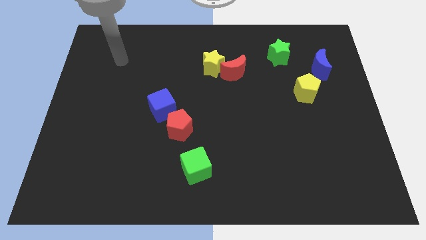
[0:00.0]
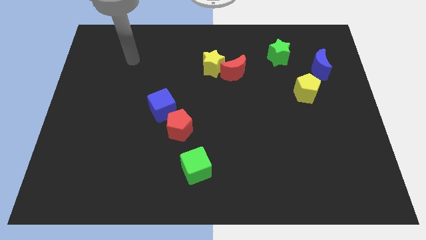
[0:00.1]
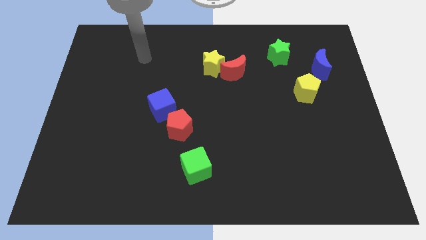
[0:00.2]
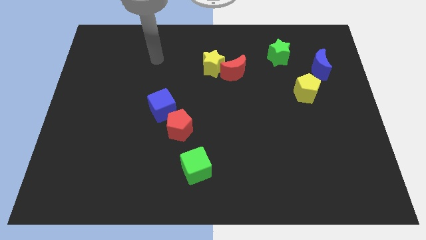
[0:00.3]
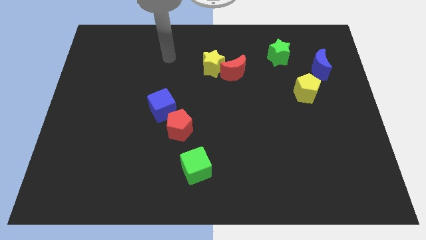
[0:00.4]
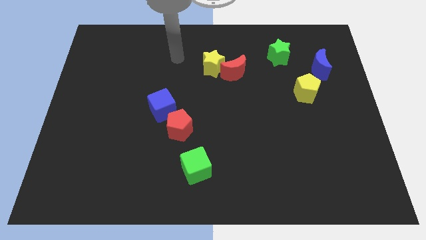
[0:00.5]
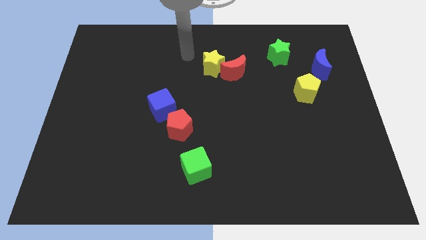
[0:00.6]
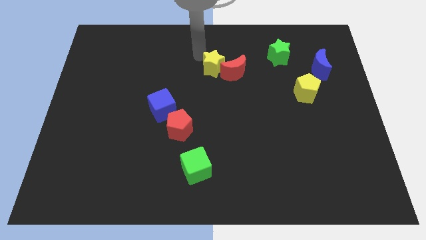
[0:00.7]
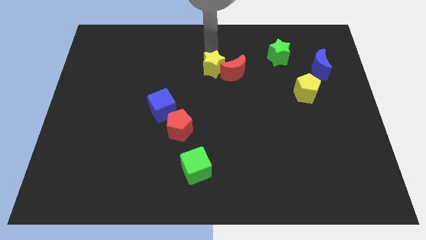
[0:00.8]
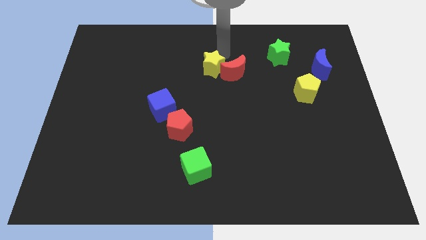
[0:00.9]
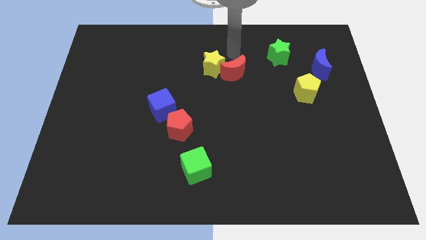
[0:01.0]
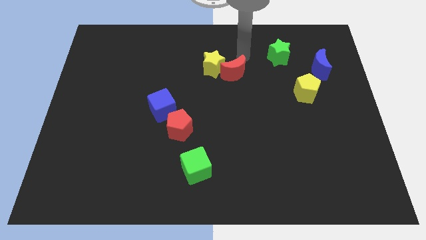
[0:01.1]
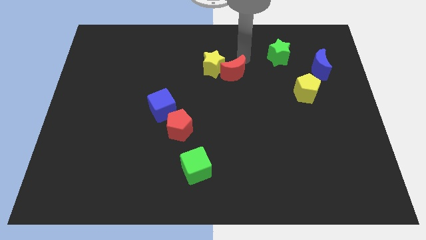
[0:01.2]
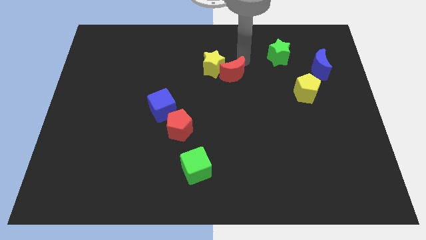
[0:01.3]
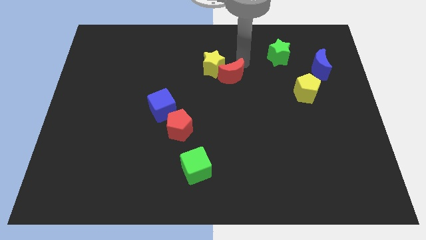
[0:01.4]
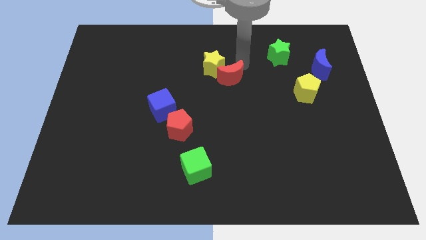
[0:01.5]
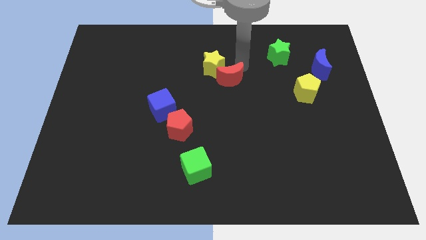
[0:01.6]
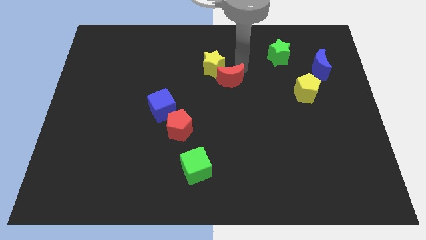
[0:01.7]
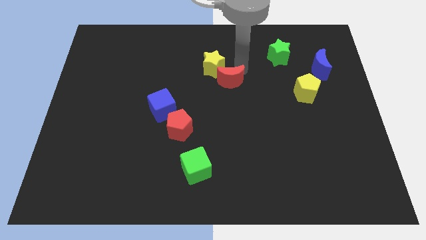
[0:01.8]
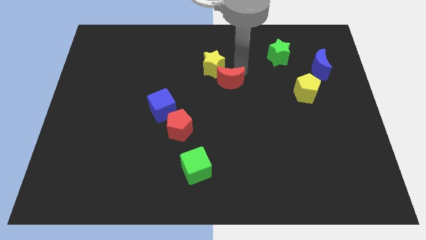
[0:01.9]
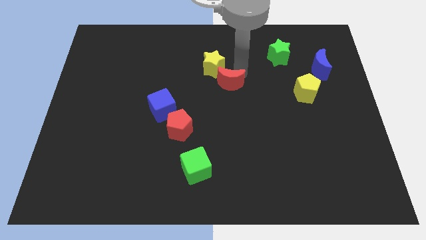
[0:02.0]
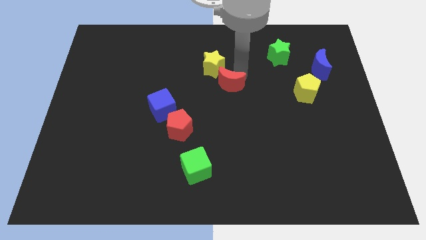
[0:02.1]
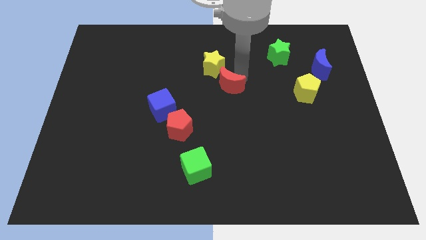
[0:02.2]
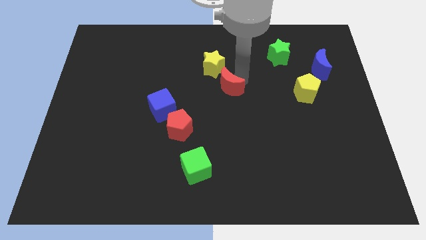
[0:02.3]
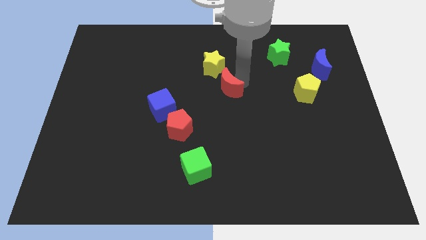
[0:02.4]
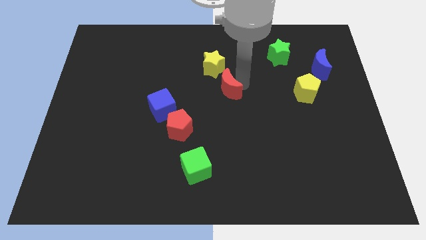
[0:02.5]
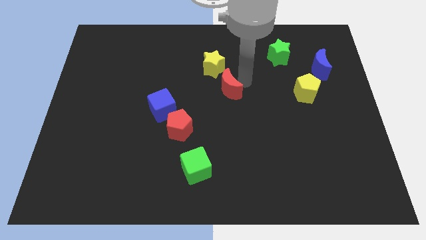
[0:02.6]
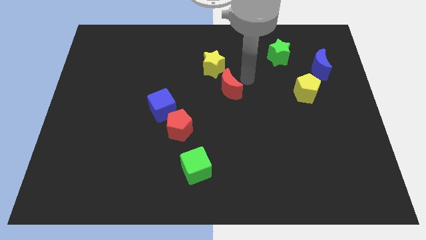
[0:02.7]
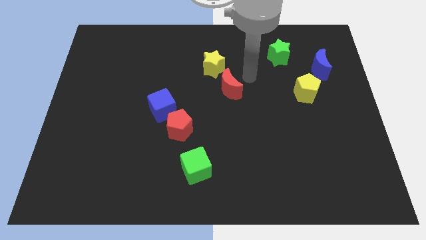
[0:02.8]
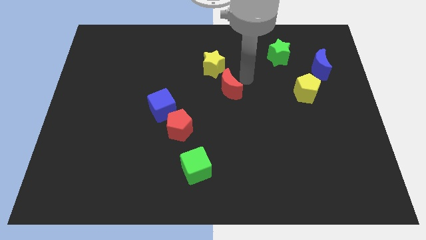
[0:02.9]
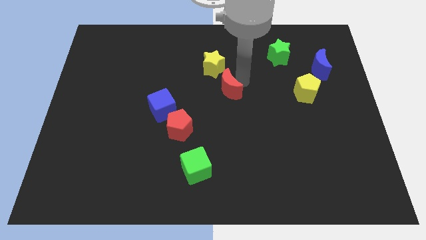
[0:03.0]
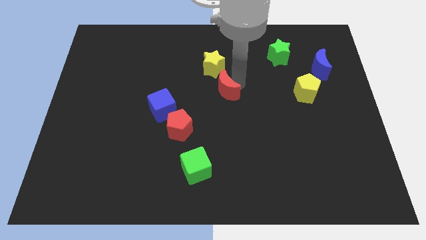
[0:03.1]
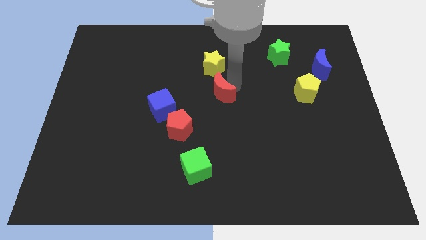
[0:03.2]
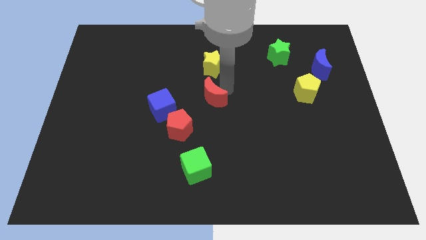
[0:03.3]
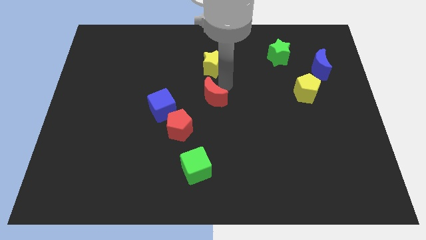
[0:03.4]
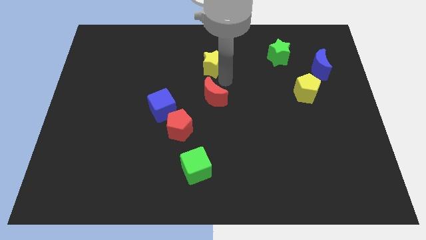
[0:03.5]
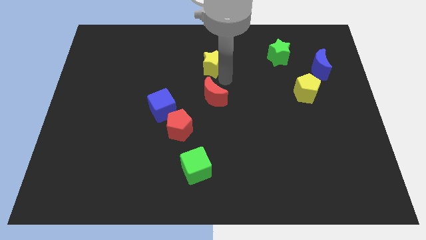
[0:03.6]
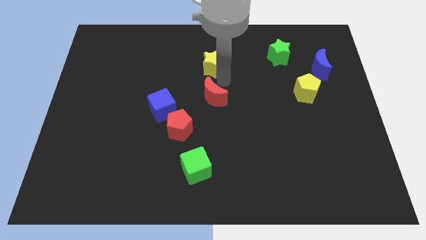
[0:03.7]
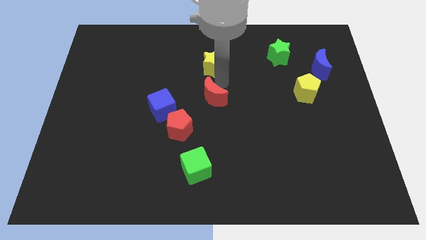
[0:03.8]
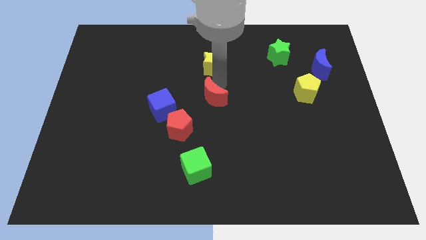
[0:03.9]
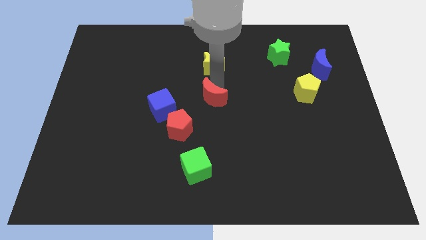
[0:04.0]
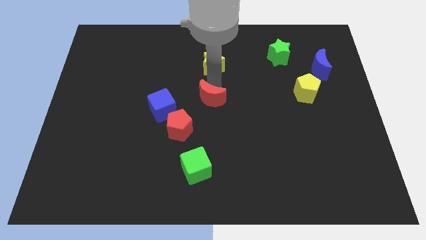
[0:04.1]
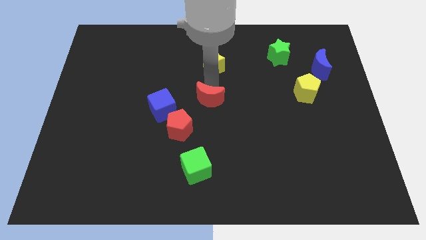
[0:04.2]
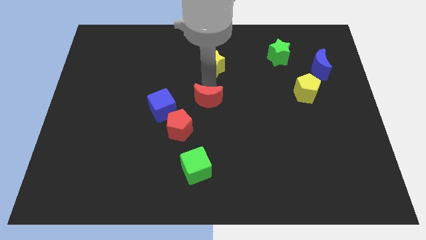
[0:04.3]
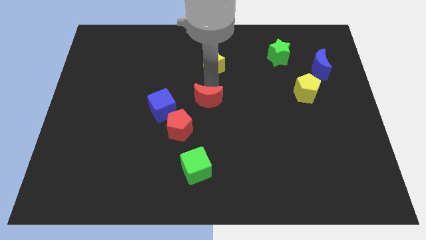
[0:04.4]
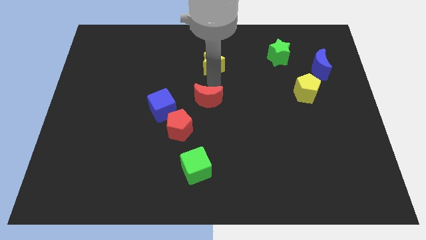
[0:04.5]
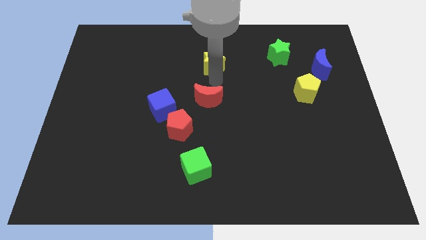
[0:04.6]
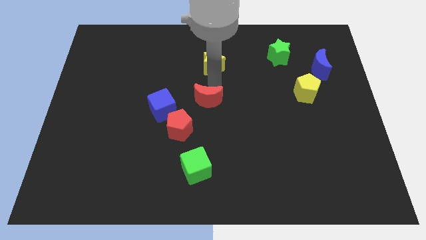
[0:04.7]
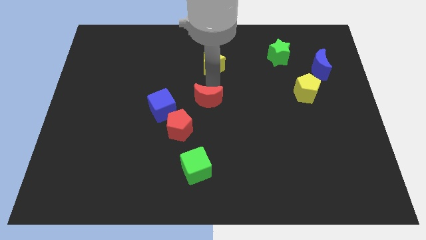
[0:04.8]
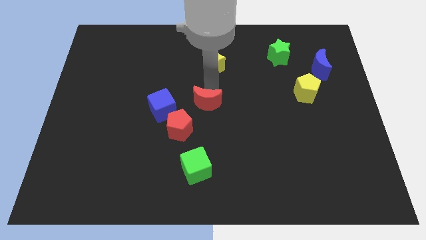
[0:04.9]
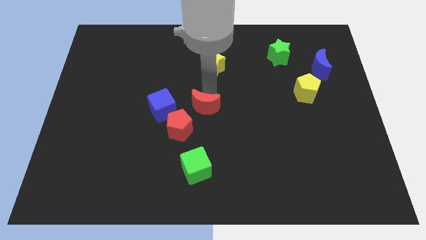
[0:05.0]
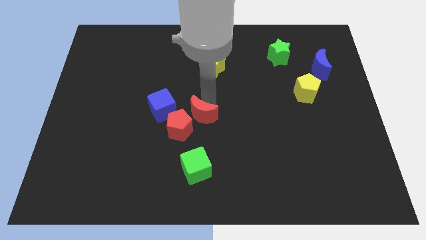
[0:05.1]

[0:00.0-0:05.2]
slide the red moon close to the red pentagon

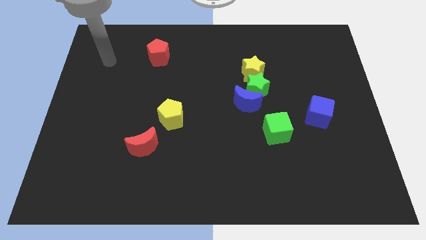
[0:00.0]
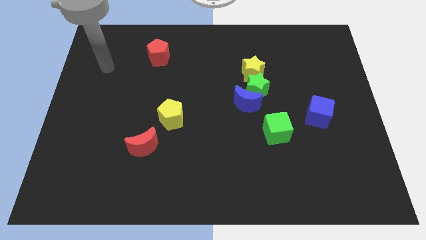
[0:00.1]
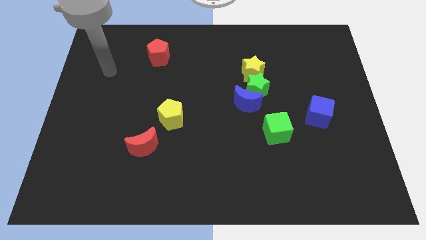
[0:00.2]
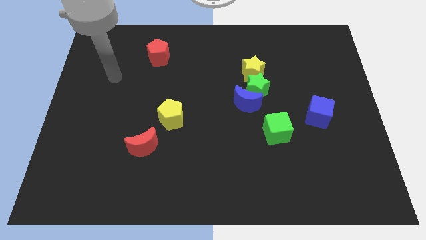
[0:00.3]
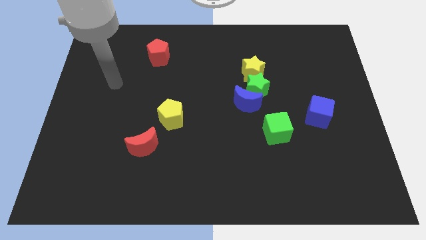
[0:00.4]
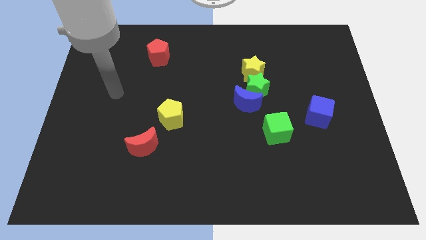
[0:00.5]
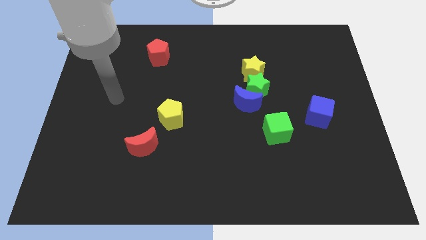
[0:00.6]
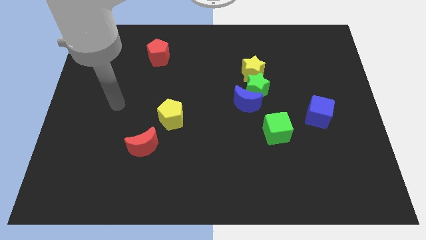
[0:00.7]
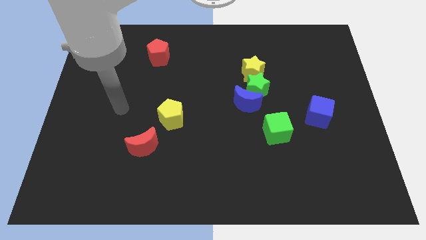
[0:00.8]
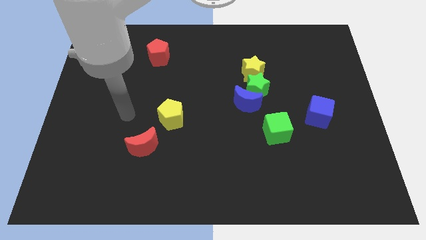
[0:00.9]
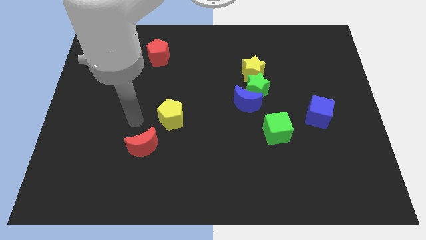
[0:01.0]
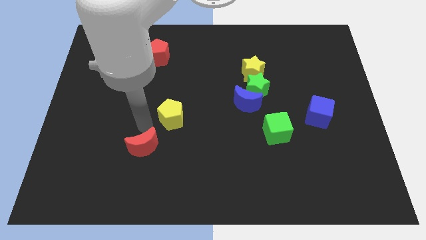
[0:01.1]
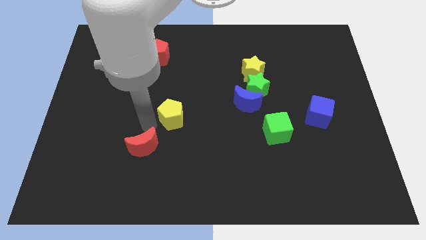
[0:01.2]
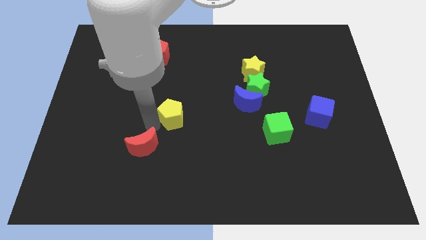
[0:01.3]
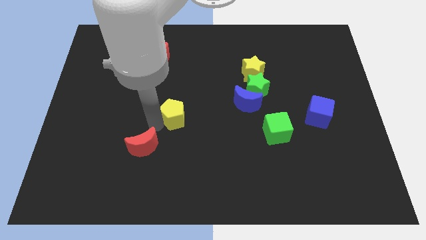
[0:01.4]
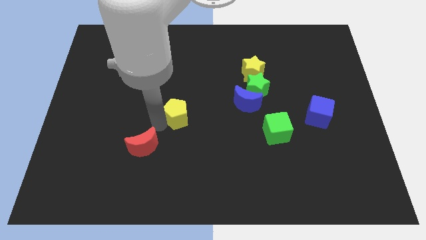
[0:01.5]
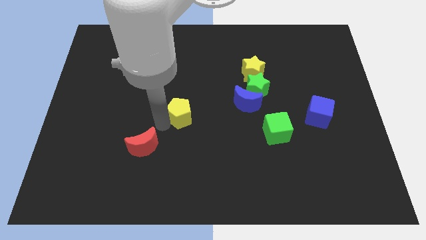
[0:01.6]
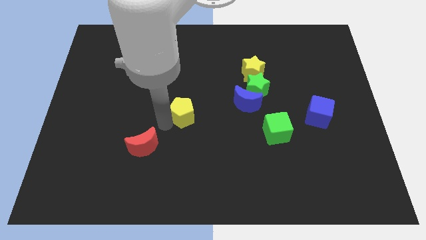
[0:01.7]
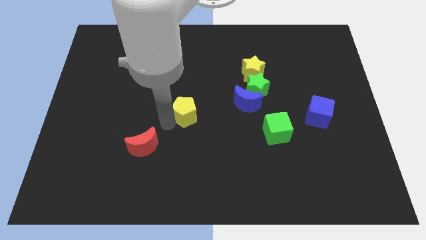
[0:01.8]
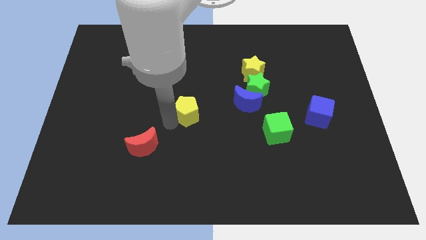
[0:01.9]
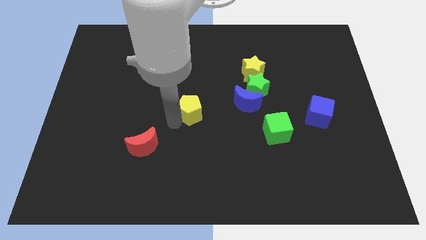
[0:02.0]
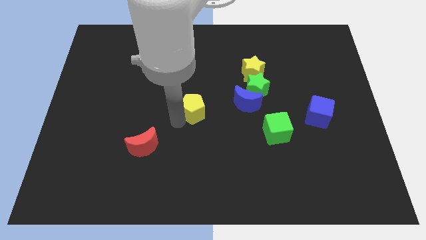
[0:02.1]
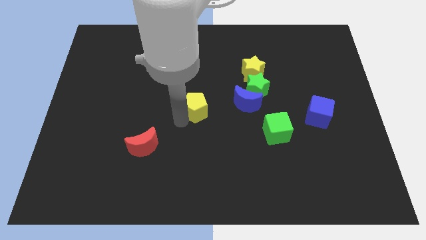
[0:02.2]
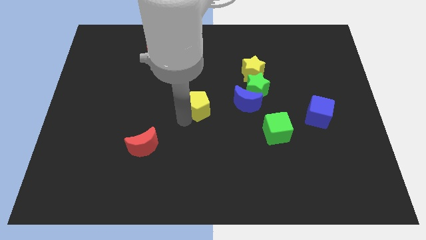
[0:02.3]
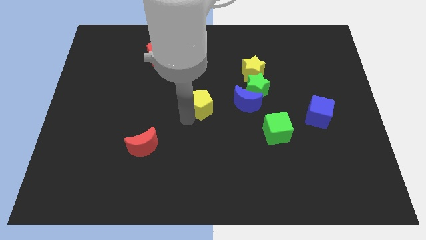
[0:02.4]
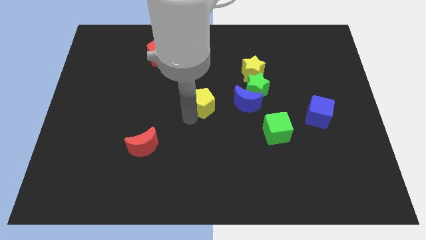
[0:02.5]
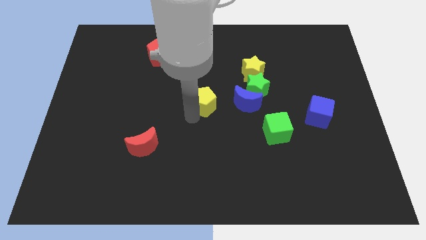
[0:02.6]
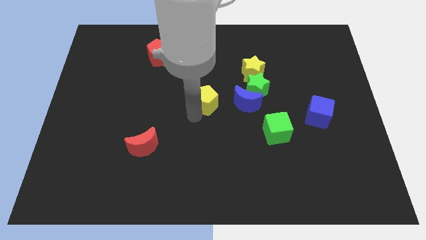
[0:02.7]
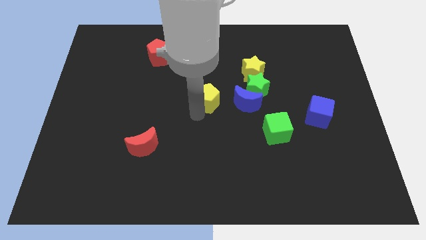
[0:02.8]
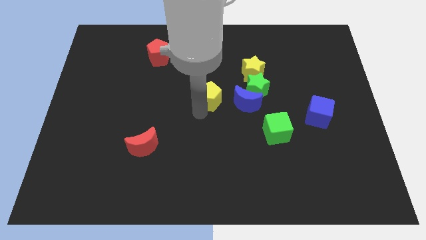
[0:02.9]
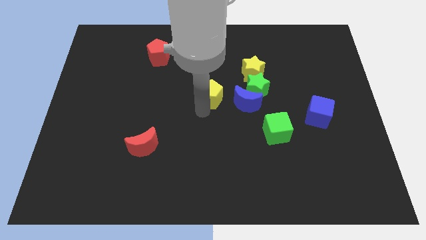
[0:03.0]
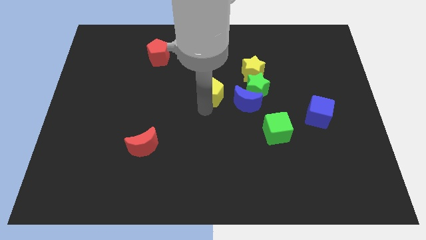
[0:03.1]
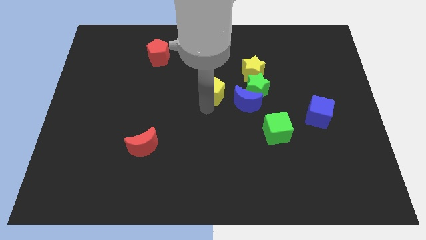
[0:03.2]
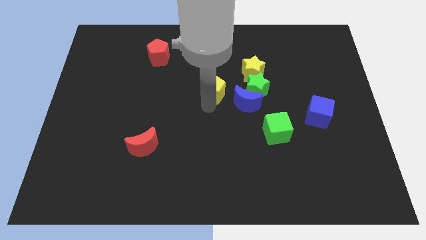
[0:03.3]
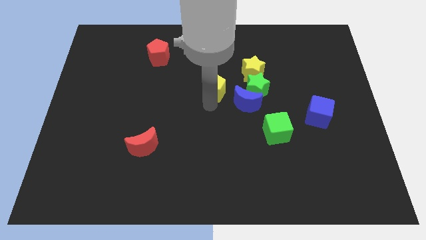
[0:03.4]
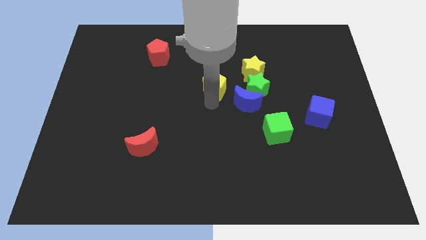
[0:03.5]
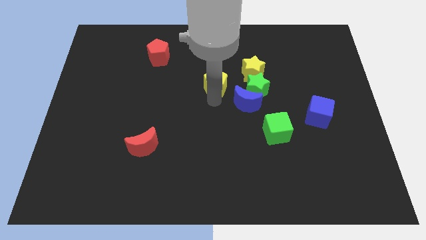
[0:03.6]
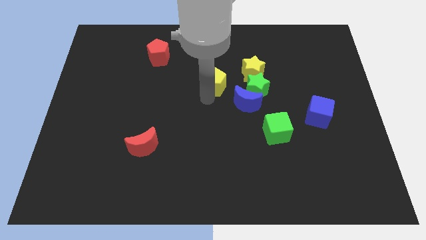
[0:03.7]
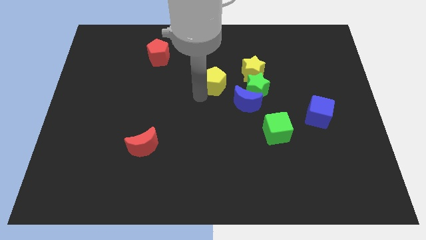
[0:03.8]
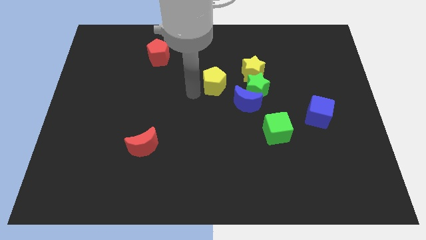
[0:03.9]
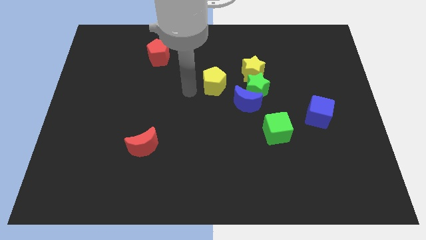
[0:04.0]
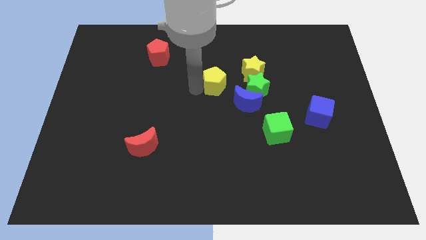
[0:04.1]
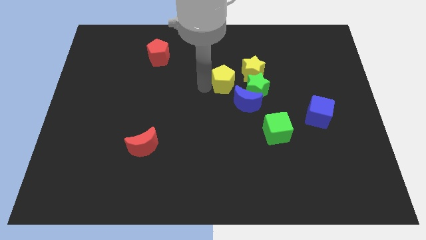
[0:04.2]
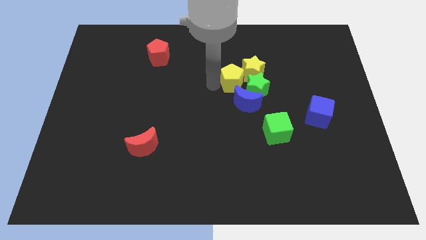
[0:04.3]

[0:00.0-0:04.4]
put the yellow pentagon close to the yellow star
